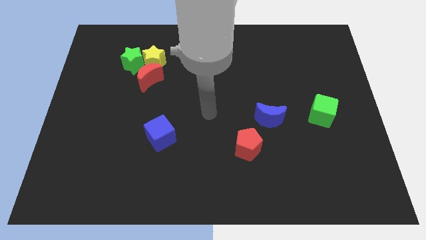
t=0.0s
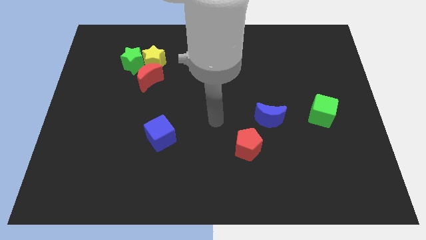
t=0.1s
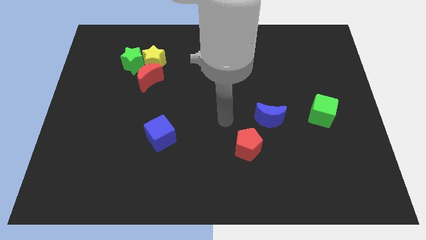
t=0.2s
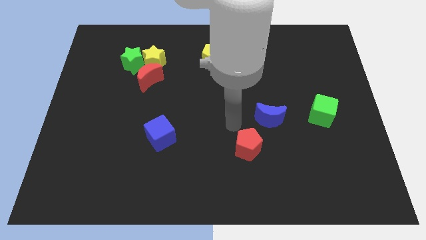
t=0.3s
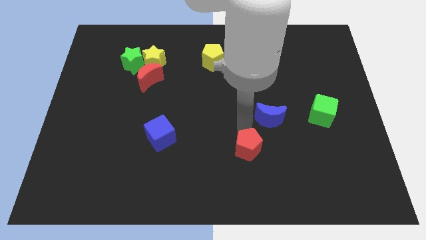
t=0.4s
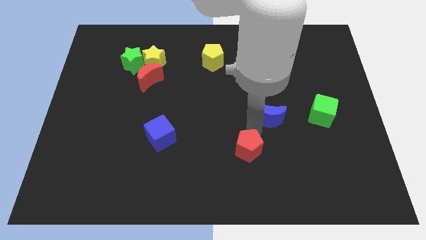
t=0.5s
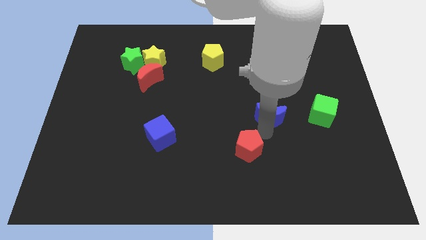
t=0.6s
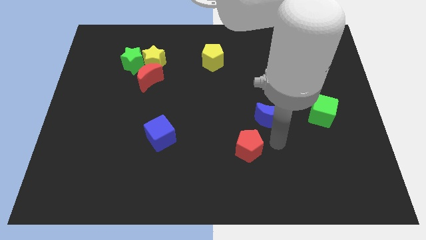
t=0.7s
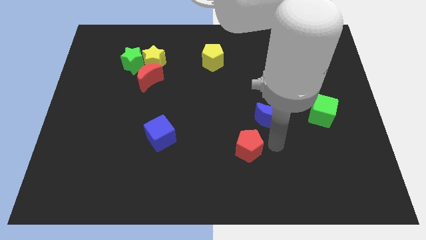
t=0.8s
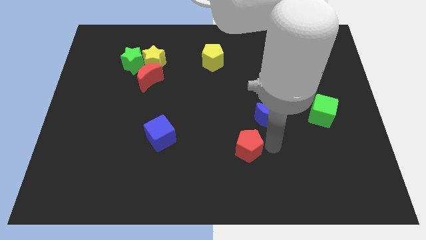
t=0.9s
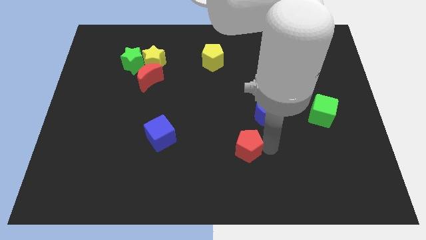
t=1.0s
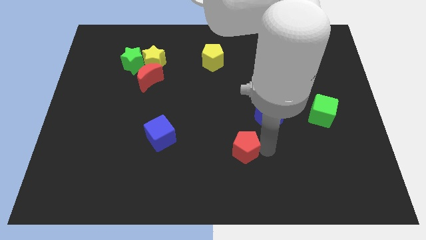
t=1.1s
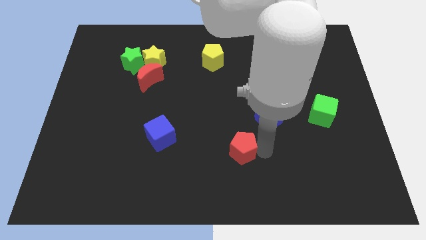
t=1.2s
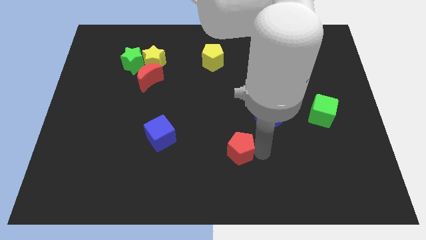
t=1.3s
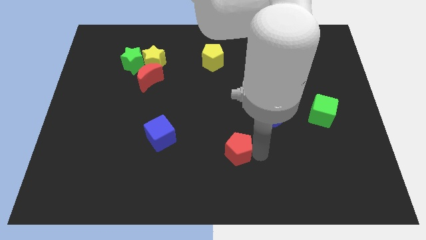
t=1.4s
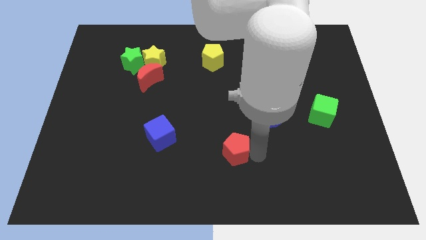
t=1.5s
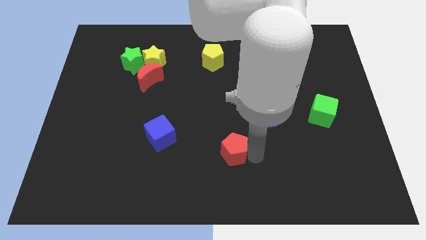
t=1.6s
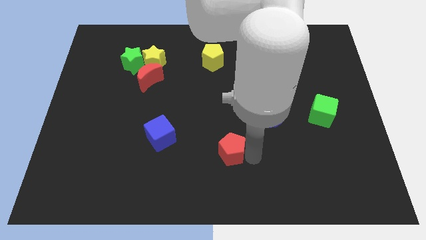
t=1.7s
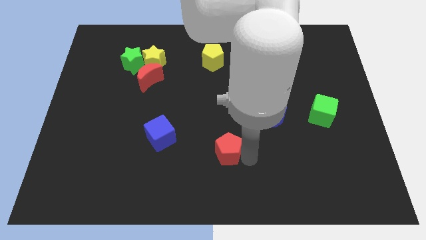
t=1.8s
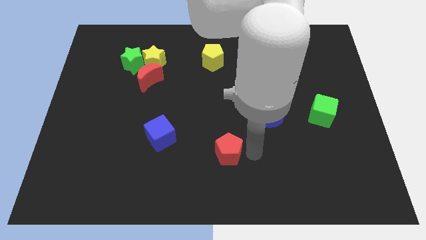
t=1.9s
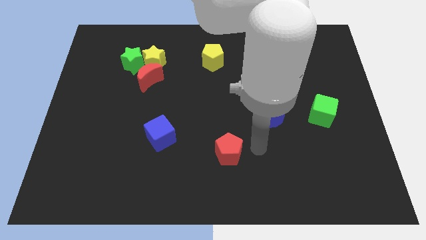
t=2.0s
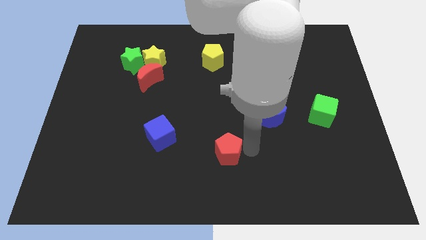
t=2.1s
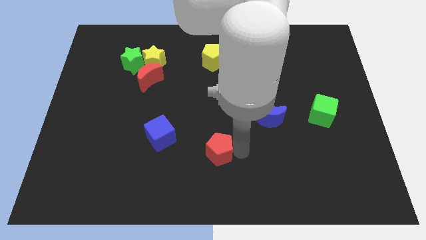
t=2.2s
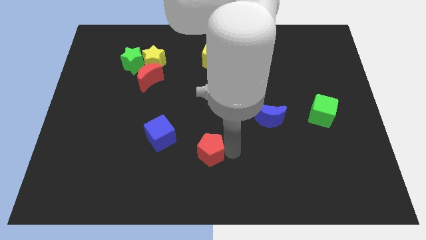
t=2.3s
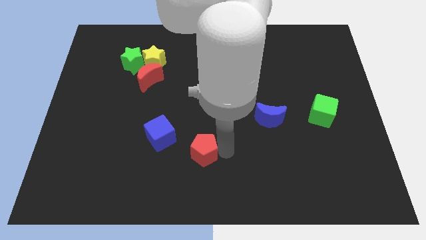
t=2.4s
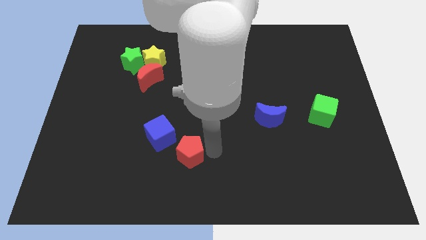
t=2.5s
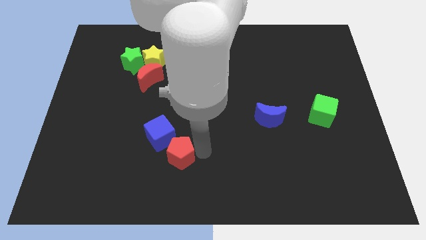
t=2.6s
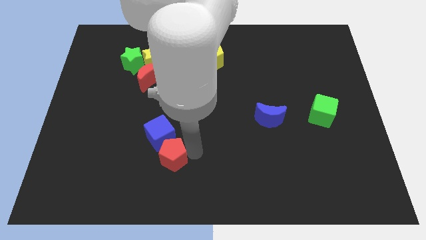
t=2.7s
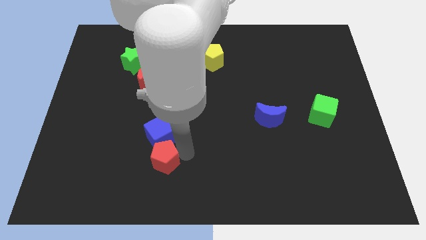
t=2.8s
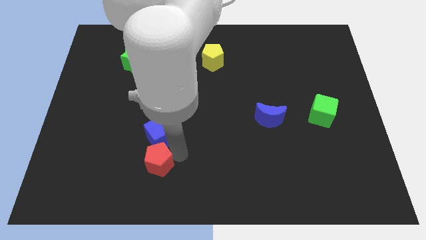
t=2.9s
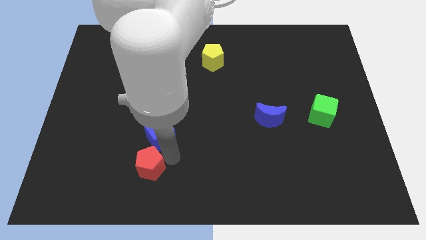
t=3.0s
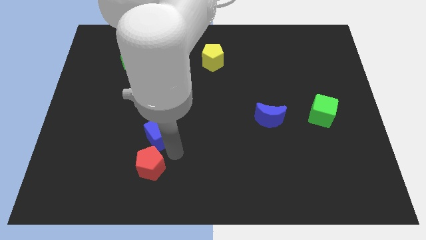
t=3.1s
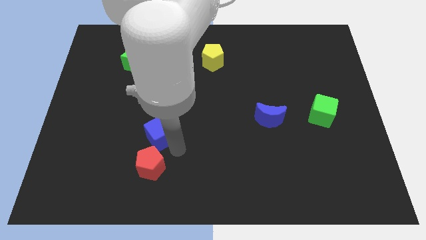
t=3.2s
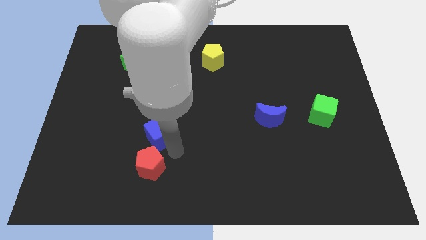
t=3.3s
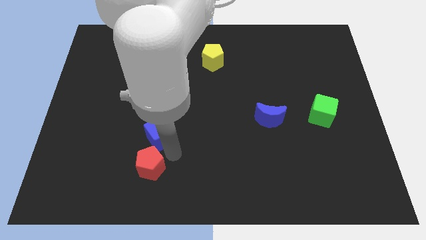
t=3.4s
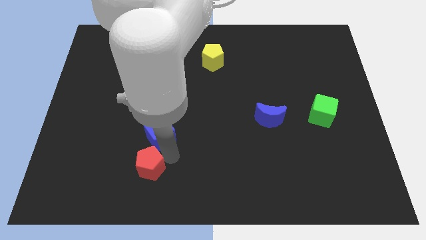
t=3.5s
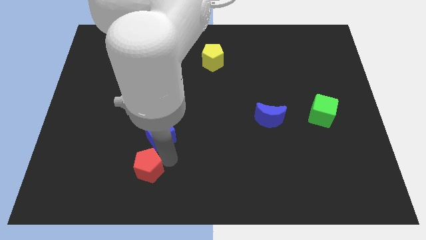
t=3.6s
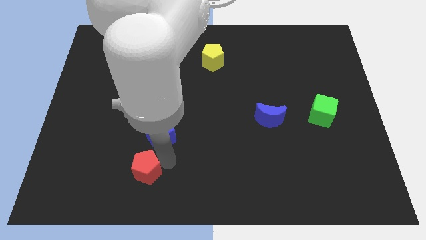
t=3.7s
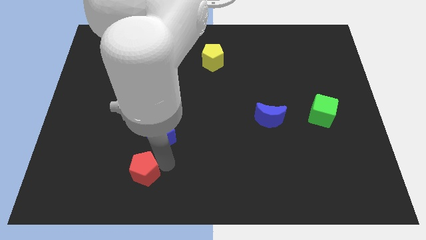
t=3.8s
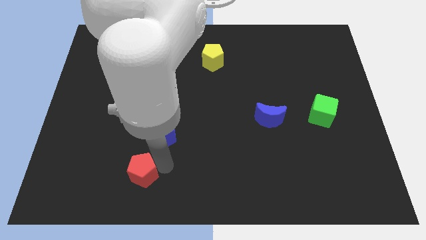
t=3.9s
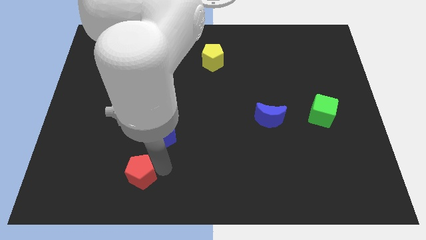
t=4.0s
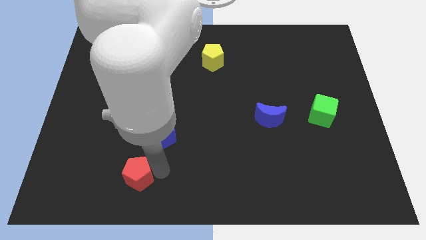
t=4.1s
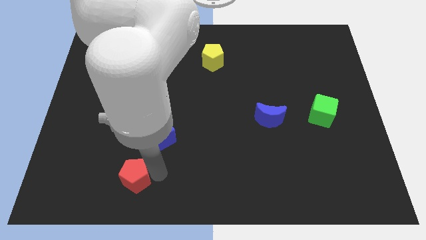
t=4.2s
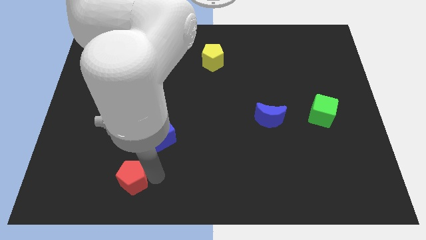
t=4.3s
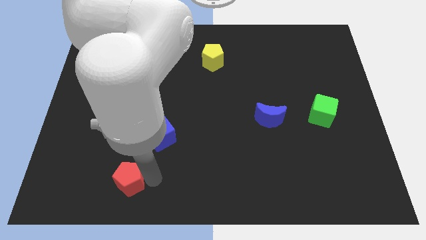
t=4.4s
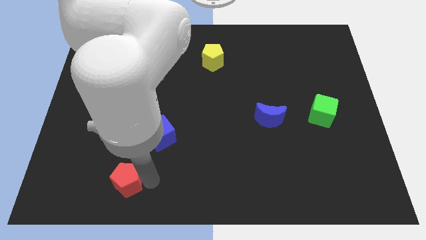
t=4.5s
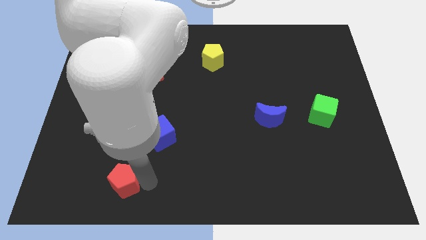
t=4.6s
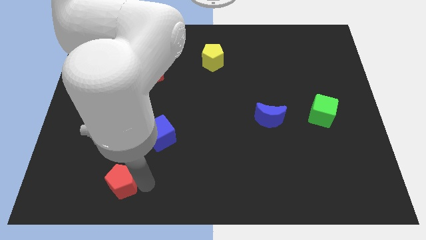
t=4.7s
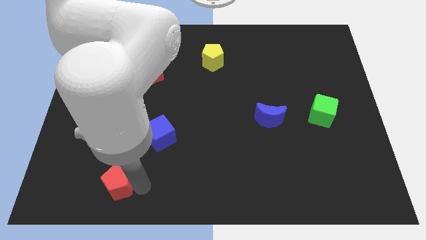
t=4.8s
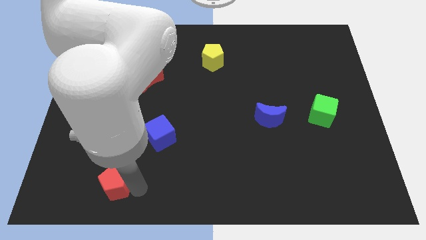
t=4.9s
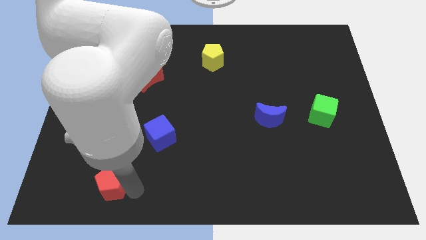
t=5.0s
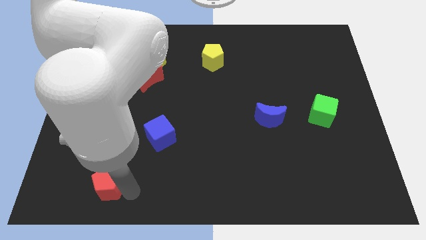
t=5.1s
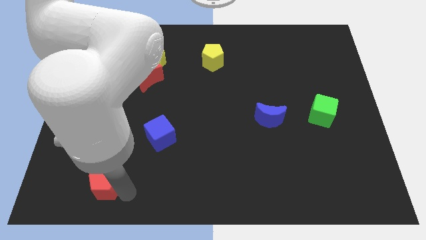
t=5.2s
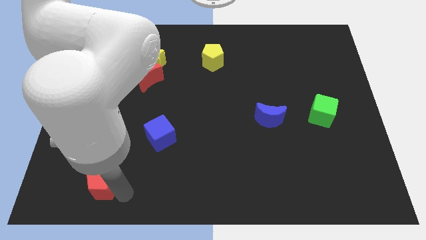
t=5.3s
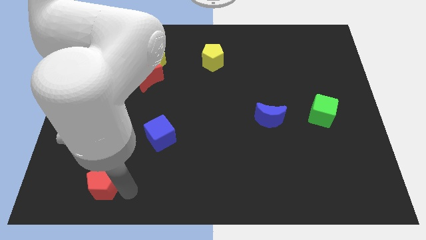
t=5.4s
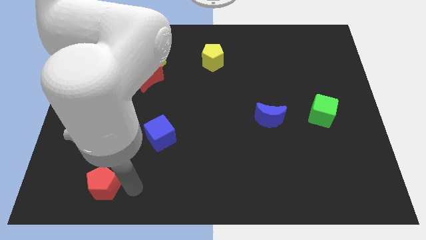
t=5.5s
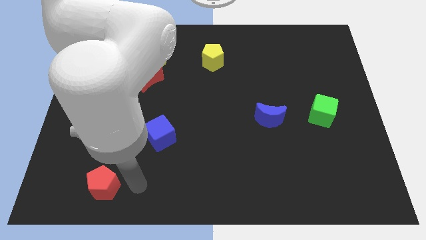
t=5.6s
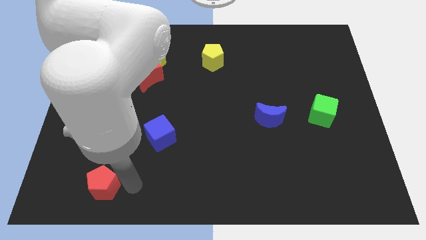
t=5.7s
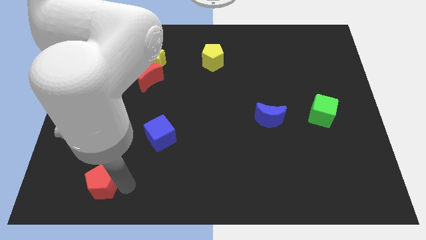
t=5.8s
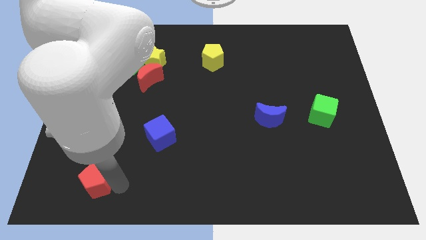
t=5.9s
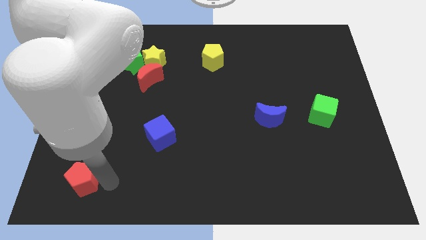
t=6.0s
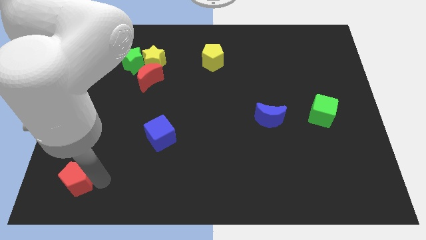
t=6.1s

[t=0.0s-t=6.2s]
put the red pentagon to the bottom left of the board
